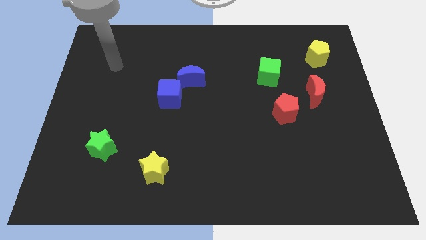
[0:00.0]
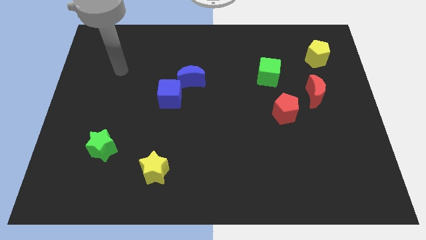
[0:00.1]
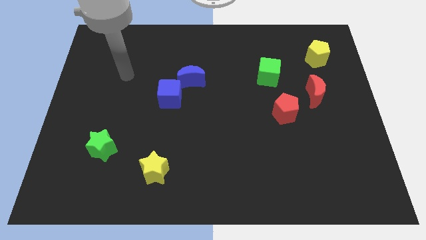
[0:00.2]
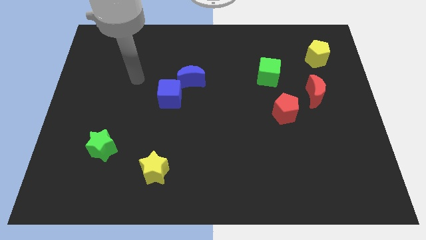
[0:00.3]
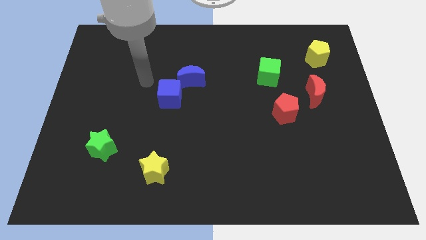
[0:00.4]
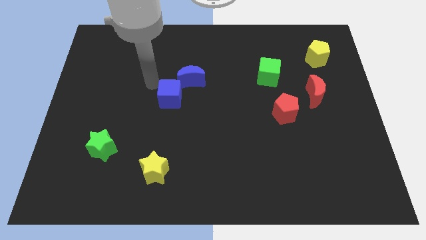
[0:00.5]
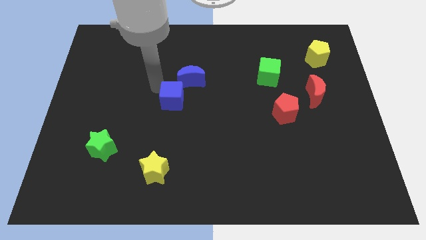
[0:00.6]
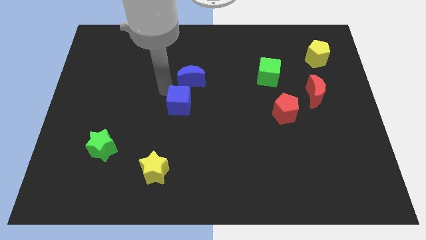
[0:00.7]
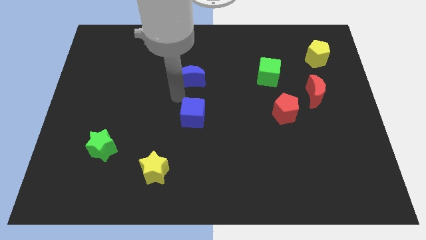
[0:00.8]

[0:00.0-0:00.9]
move the blue moon away from the blue cube

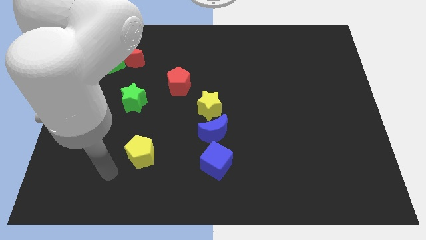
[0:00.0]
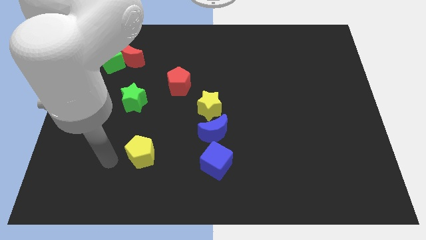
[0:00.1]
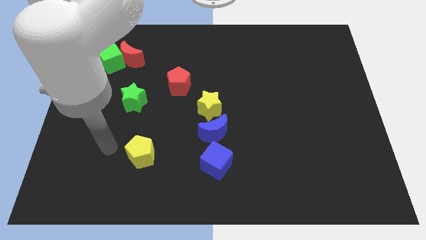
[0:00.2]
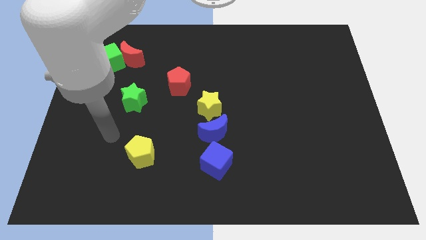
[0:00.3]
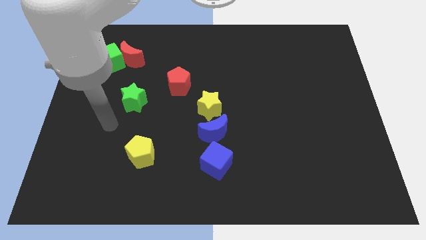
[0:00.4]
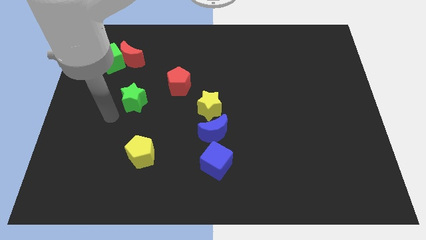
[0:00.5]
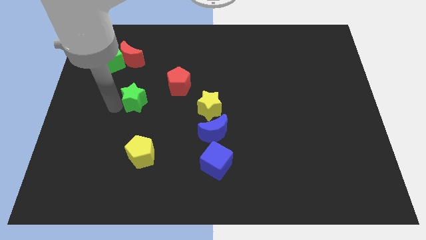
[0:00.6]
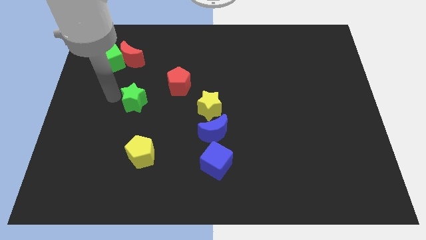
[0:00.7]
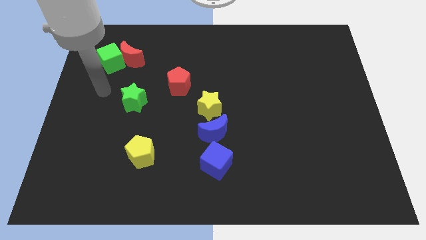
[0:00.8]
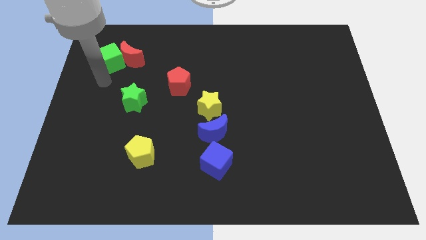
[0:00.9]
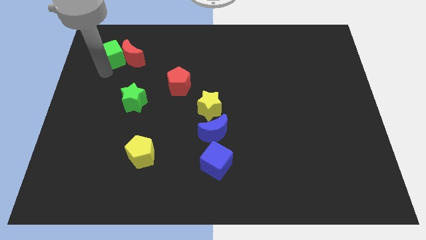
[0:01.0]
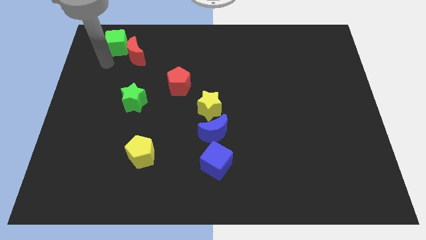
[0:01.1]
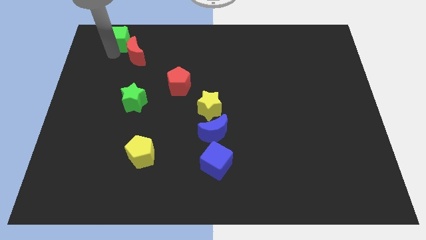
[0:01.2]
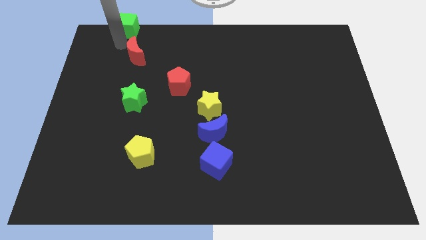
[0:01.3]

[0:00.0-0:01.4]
pull the red moon apart from the green cube

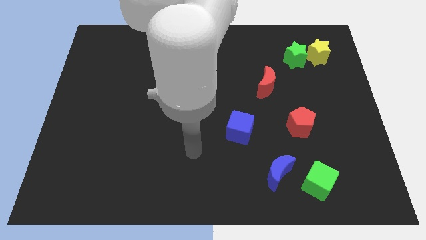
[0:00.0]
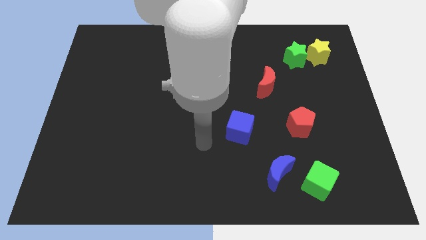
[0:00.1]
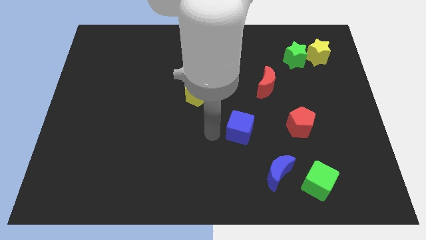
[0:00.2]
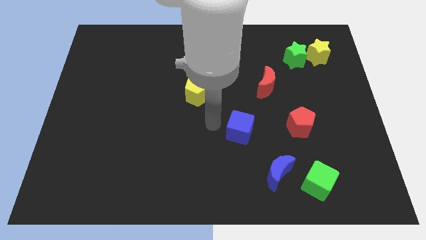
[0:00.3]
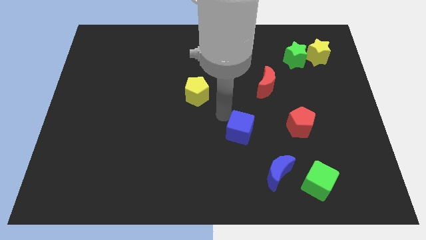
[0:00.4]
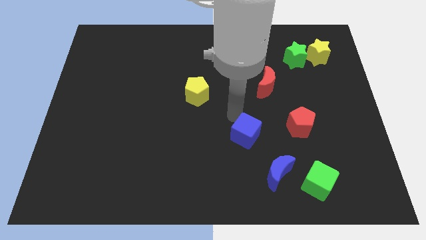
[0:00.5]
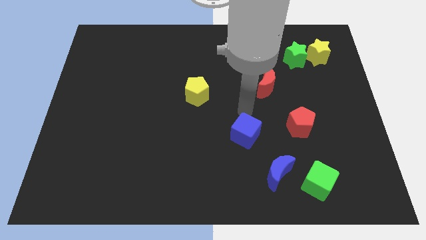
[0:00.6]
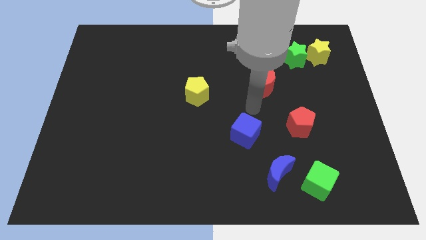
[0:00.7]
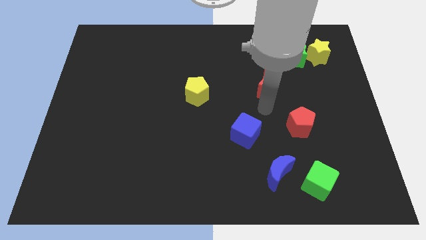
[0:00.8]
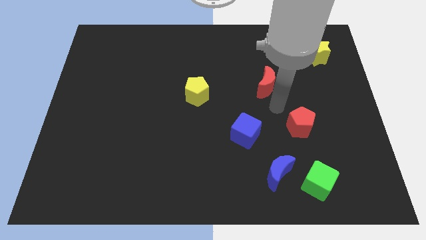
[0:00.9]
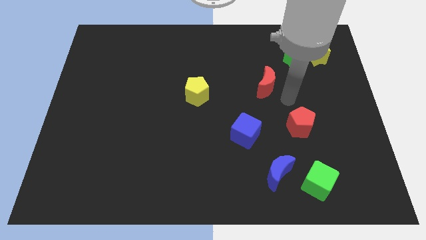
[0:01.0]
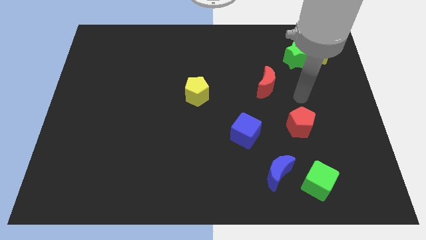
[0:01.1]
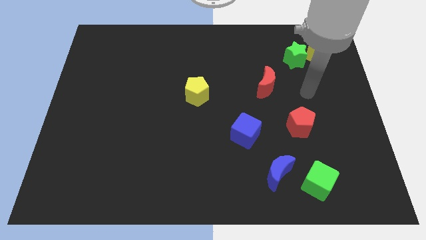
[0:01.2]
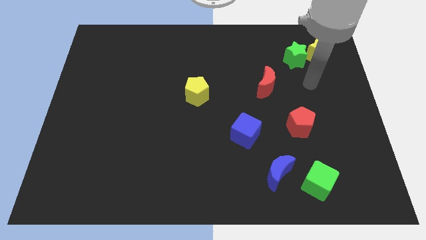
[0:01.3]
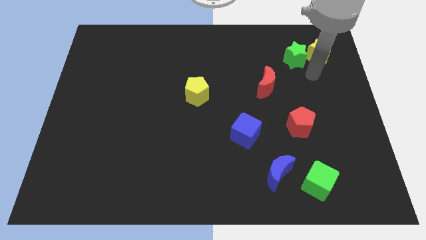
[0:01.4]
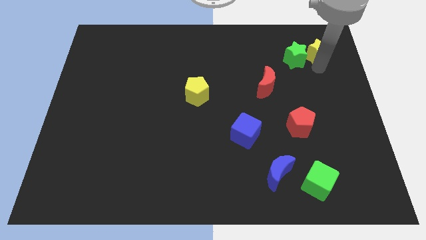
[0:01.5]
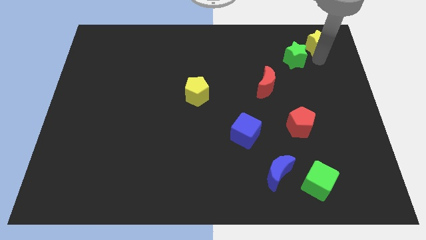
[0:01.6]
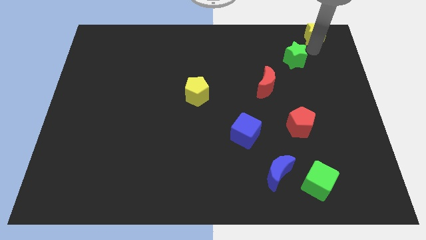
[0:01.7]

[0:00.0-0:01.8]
pull the green star apart from the yellow star

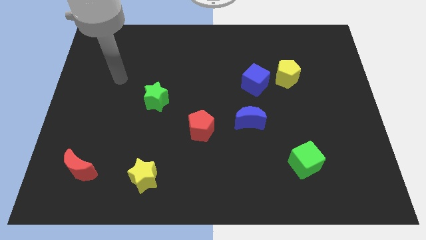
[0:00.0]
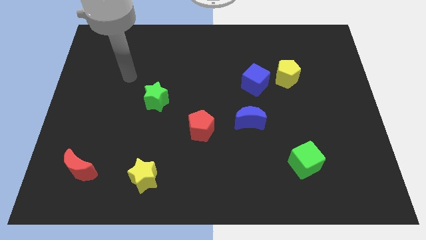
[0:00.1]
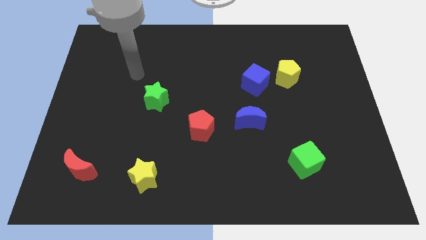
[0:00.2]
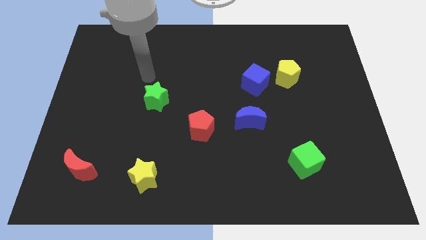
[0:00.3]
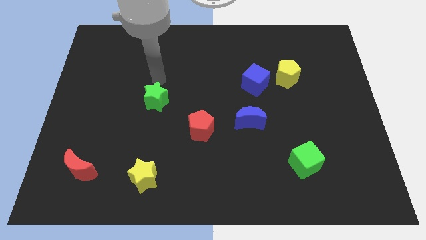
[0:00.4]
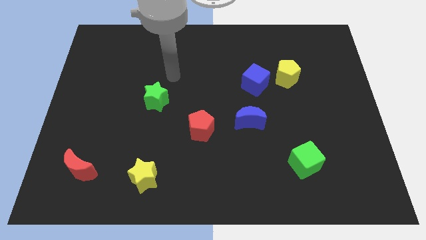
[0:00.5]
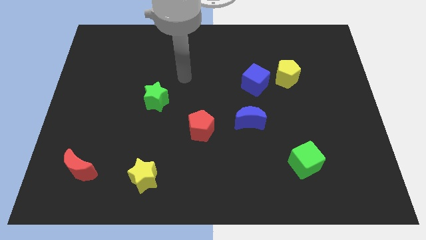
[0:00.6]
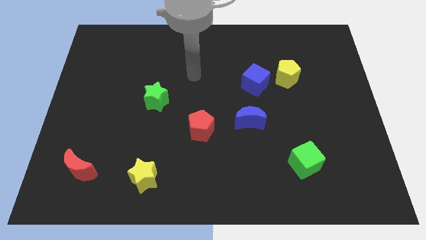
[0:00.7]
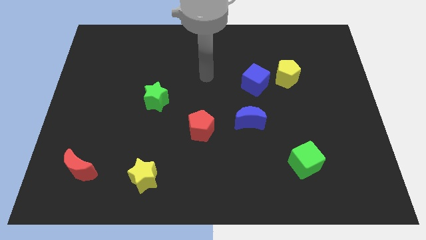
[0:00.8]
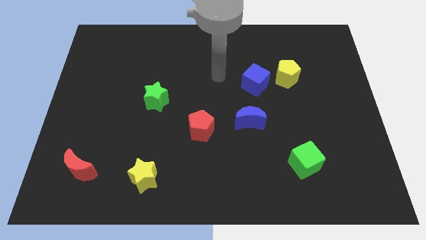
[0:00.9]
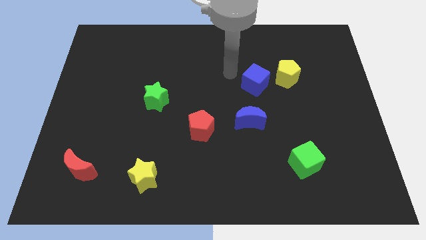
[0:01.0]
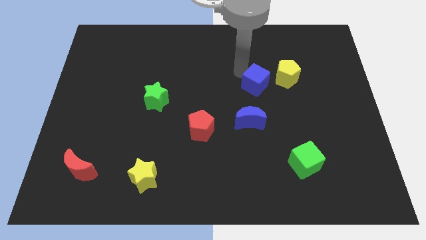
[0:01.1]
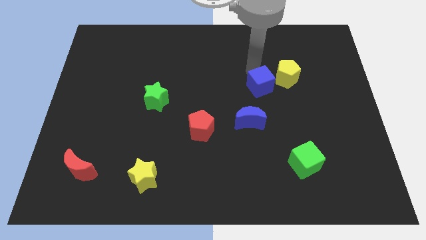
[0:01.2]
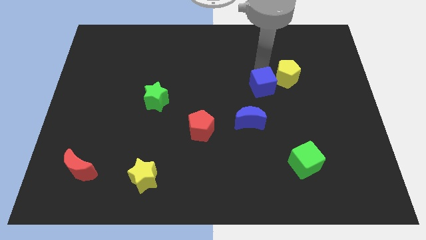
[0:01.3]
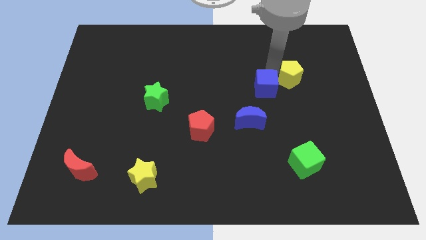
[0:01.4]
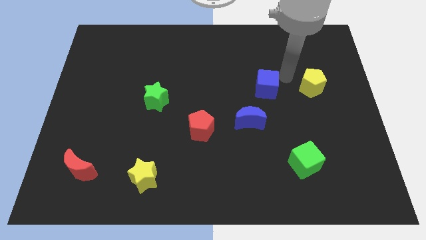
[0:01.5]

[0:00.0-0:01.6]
pull the blue cube apart from the yellow pentagon

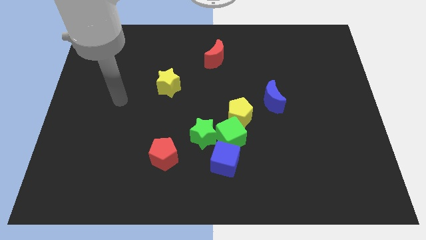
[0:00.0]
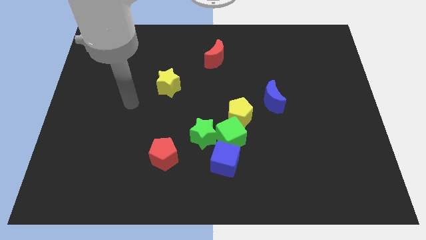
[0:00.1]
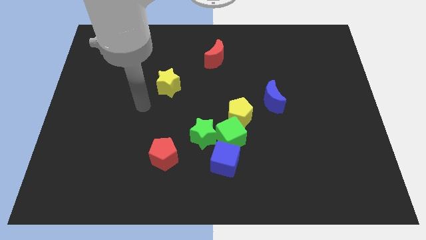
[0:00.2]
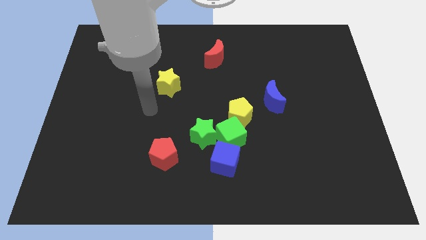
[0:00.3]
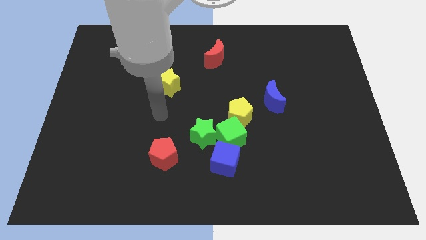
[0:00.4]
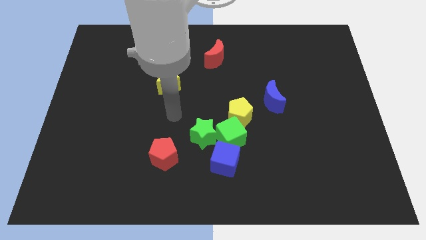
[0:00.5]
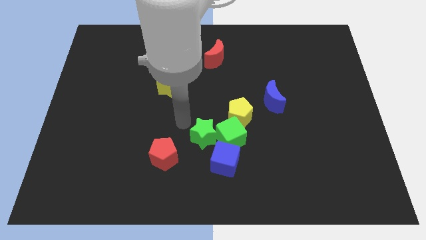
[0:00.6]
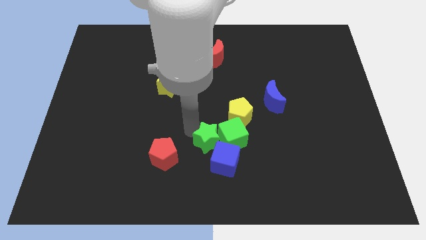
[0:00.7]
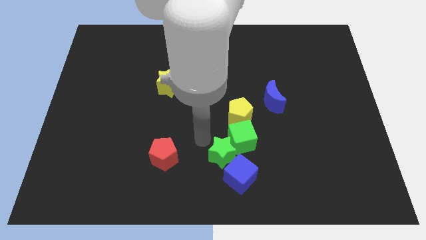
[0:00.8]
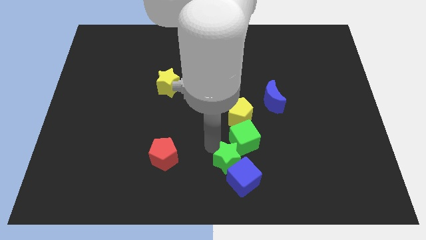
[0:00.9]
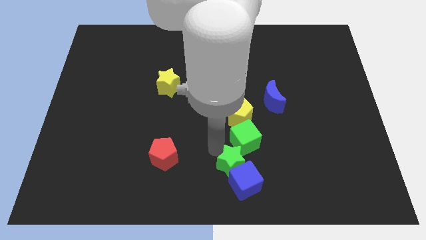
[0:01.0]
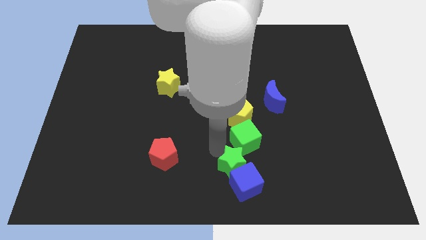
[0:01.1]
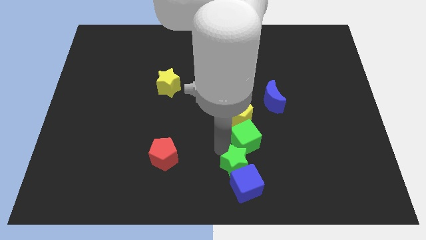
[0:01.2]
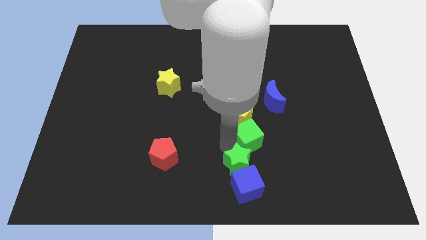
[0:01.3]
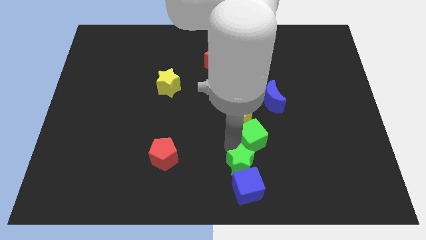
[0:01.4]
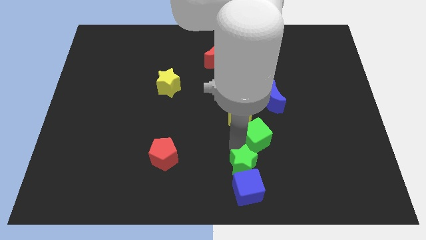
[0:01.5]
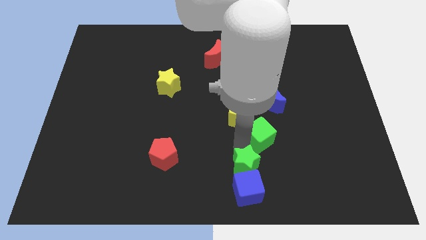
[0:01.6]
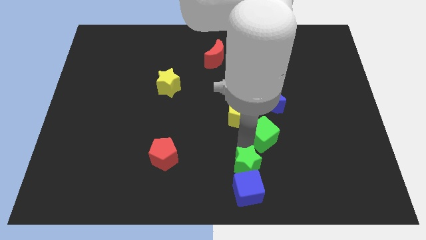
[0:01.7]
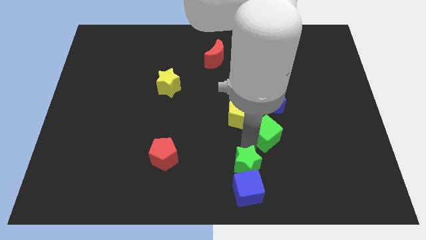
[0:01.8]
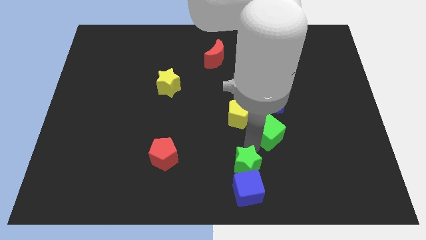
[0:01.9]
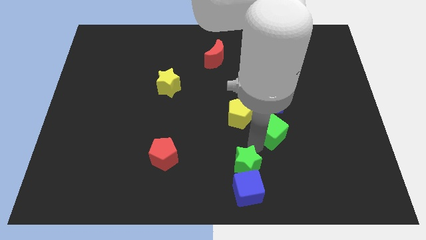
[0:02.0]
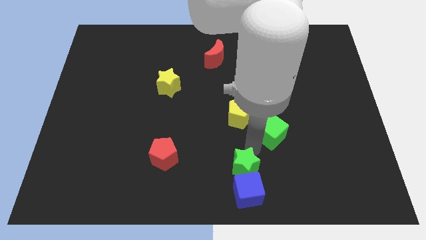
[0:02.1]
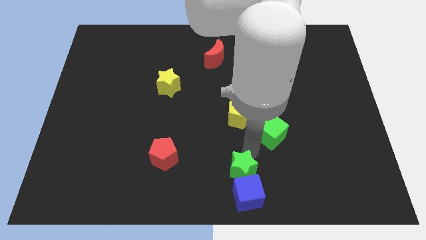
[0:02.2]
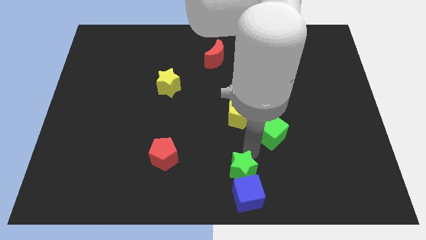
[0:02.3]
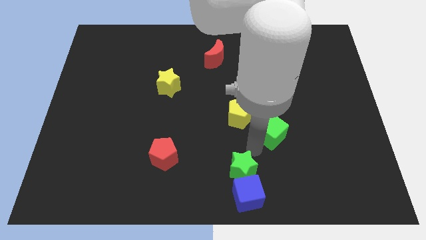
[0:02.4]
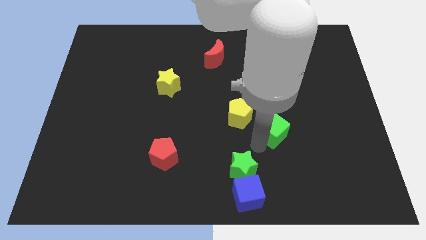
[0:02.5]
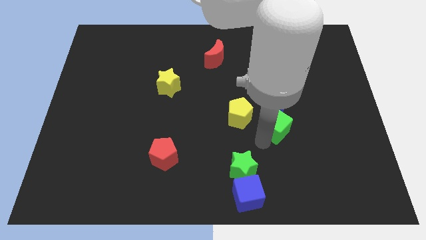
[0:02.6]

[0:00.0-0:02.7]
move the green cube away from the group

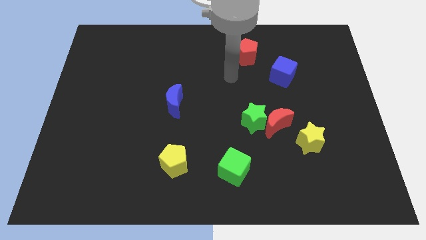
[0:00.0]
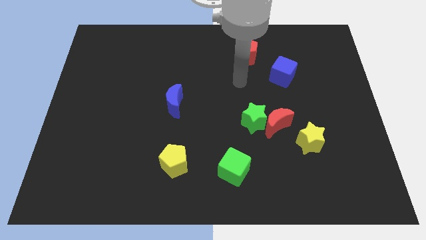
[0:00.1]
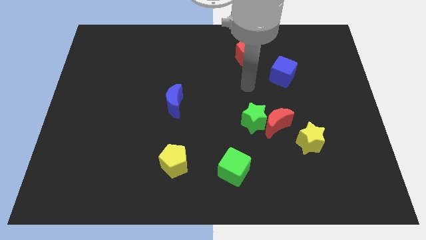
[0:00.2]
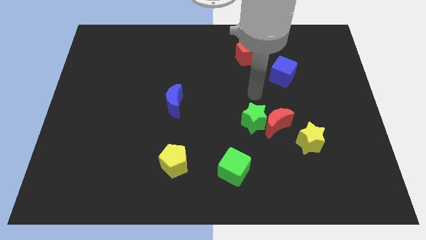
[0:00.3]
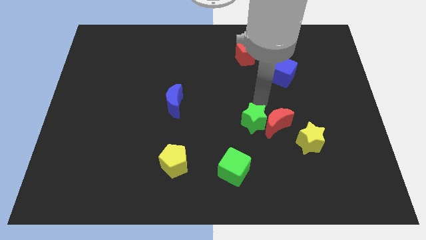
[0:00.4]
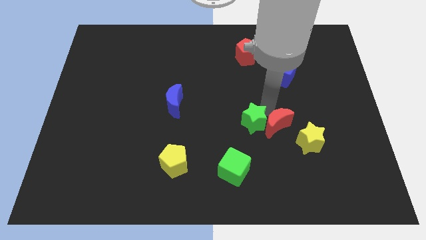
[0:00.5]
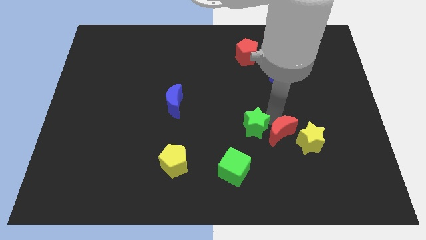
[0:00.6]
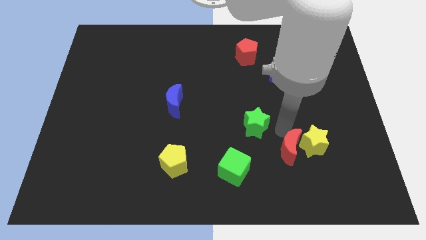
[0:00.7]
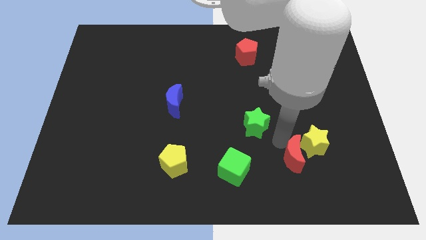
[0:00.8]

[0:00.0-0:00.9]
move the green star away from the red moon
